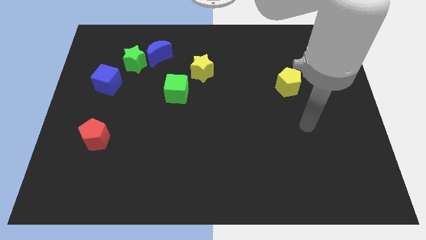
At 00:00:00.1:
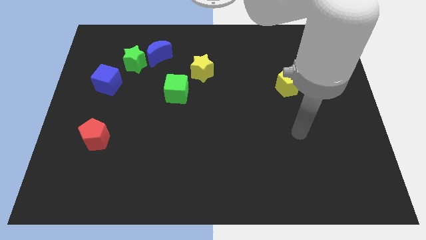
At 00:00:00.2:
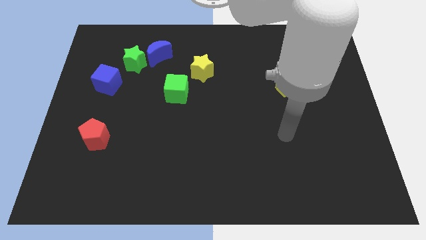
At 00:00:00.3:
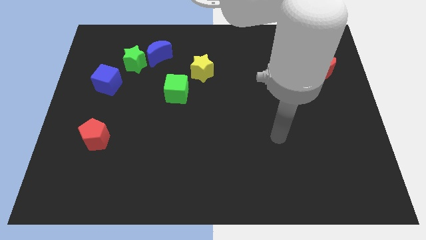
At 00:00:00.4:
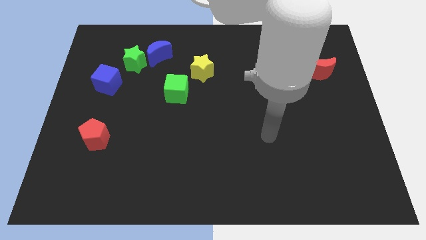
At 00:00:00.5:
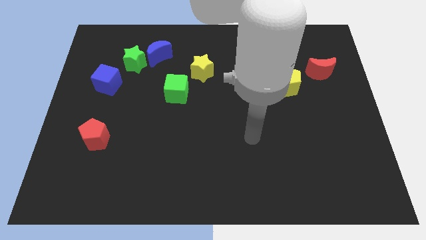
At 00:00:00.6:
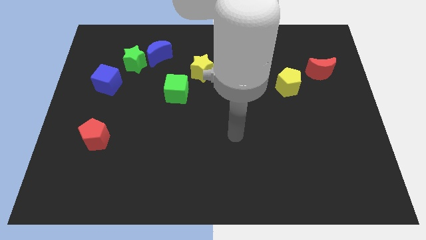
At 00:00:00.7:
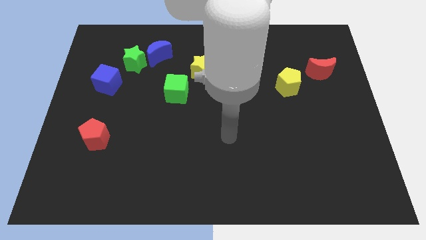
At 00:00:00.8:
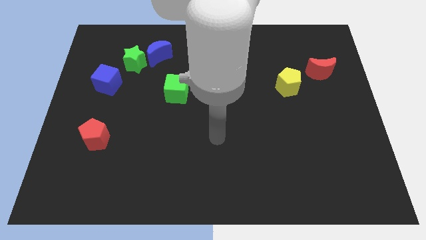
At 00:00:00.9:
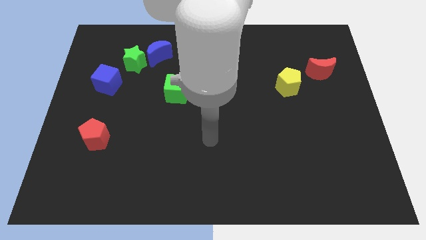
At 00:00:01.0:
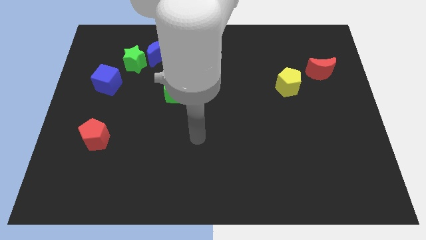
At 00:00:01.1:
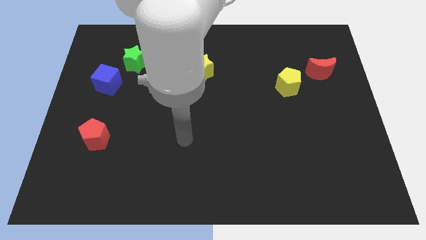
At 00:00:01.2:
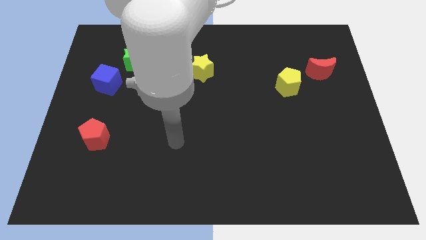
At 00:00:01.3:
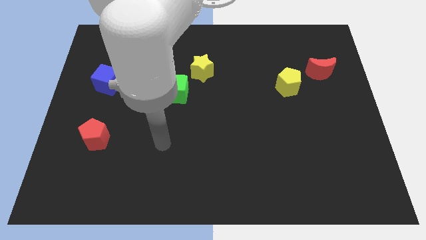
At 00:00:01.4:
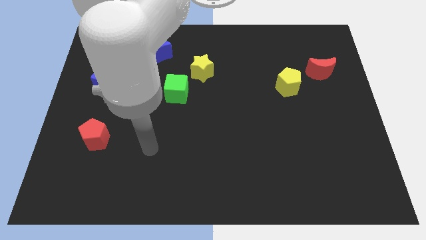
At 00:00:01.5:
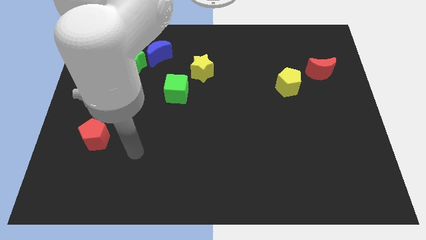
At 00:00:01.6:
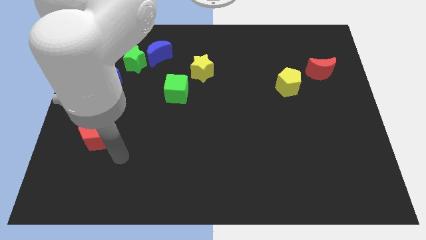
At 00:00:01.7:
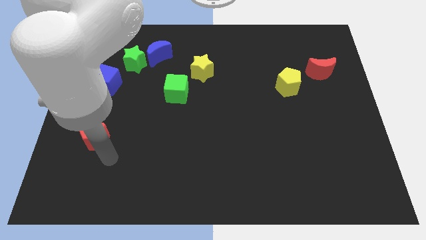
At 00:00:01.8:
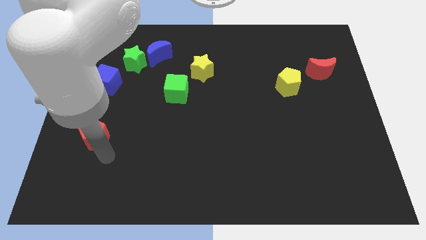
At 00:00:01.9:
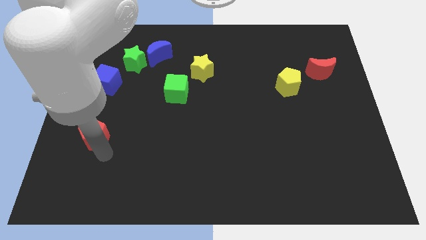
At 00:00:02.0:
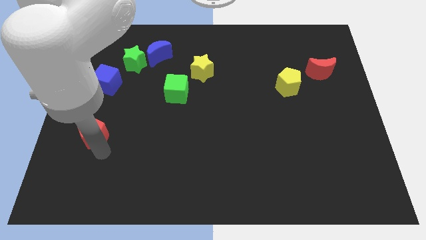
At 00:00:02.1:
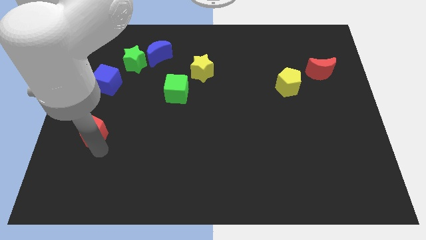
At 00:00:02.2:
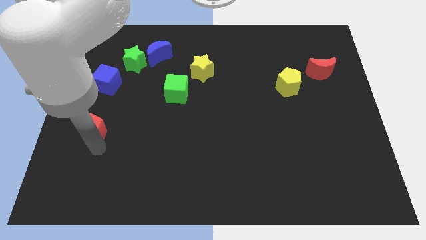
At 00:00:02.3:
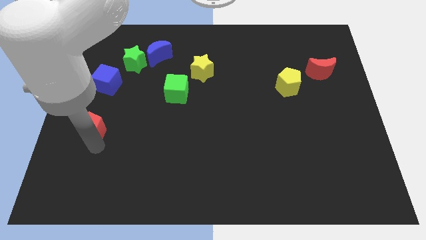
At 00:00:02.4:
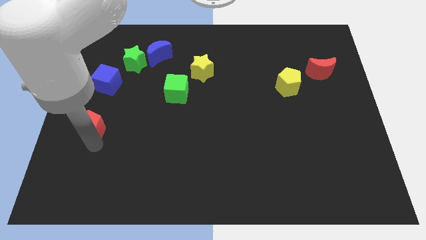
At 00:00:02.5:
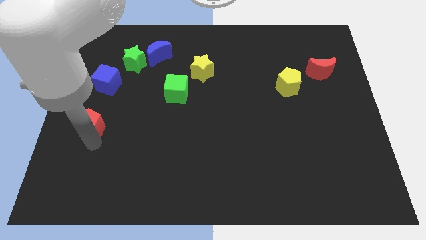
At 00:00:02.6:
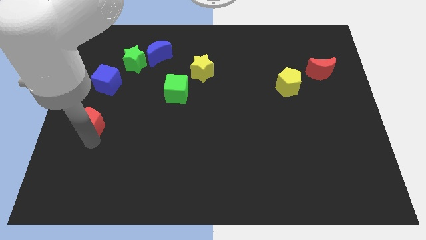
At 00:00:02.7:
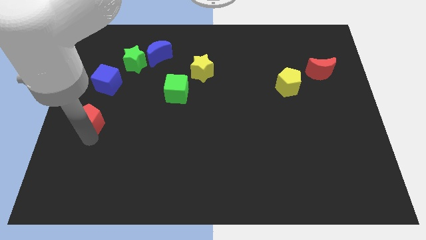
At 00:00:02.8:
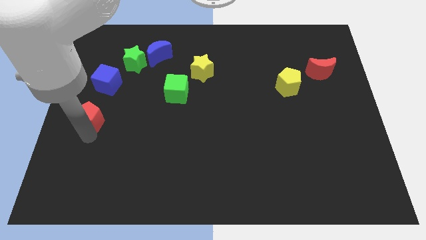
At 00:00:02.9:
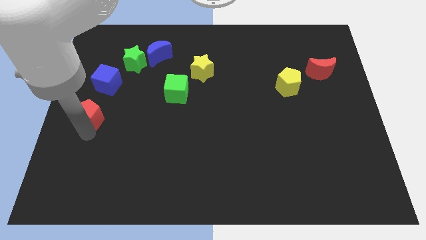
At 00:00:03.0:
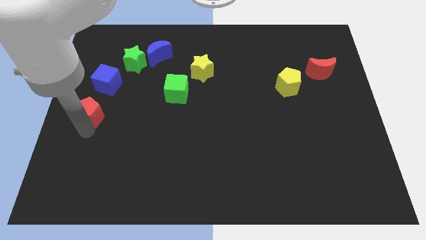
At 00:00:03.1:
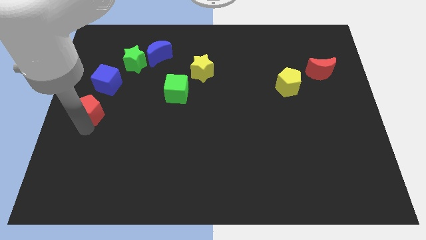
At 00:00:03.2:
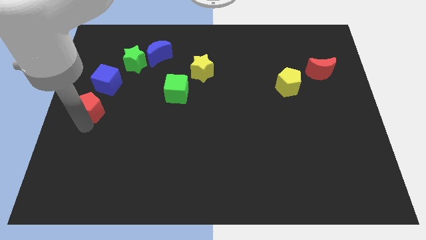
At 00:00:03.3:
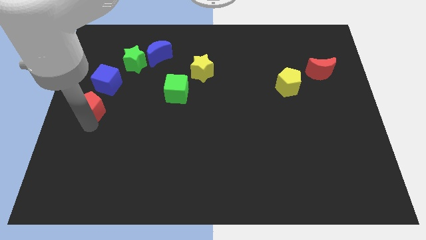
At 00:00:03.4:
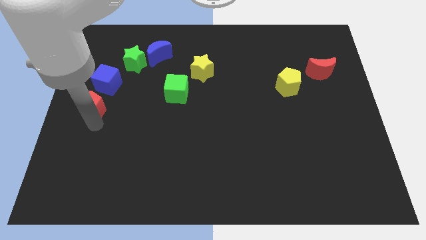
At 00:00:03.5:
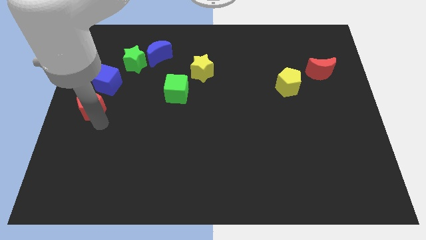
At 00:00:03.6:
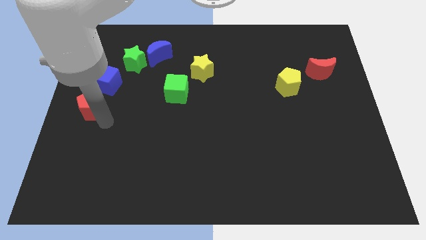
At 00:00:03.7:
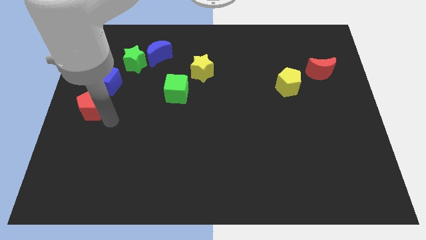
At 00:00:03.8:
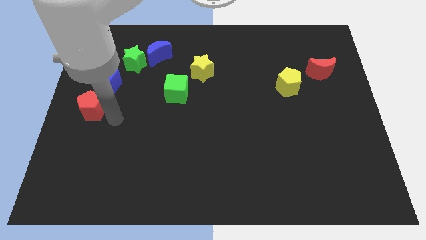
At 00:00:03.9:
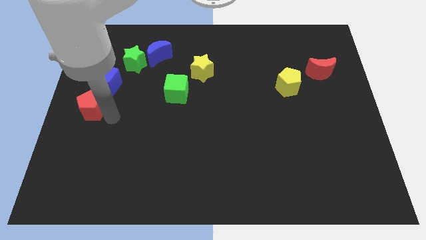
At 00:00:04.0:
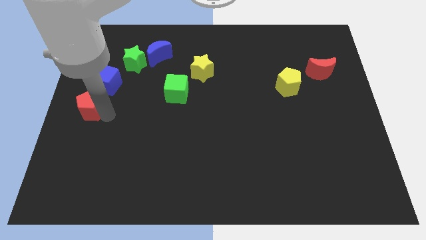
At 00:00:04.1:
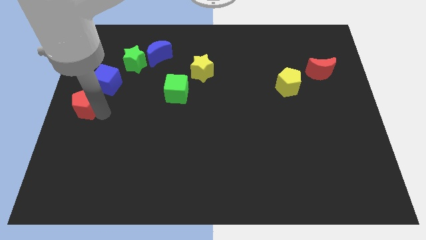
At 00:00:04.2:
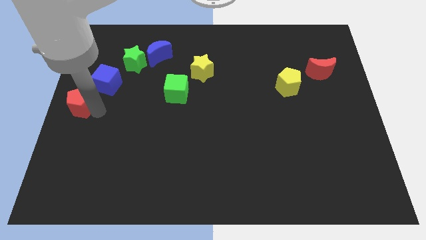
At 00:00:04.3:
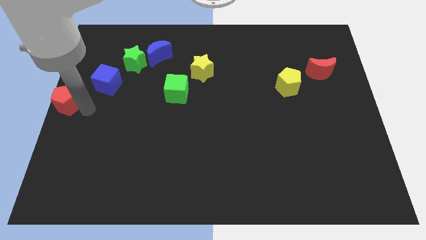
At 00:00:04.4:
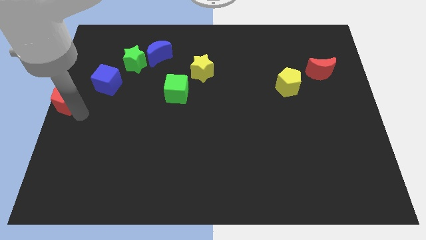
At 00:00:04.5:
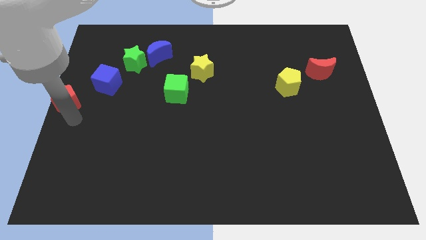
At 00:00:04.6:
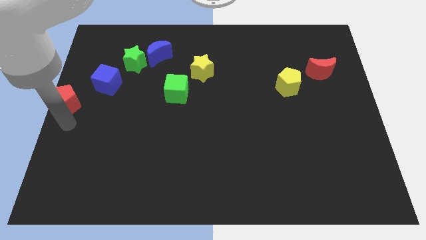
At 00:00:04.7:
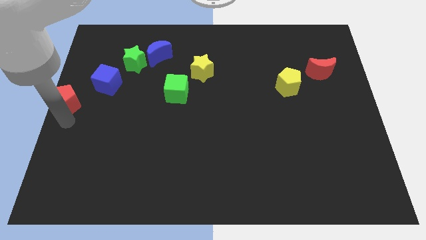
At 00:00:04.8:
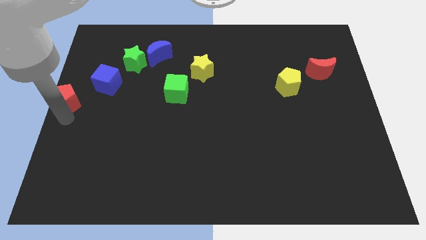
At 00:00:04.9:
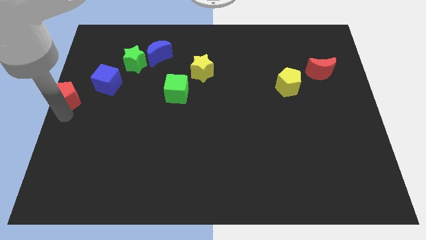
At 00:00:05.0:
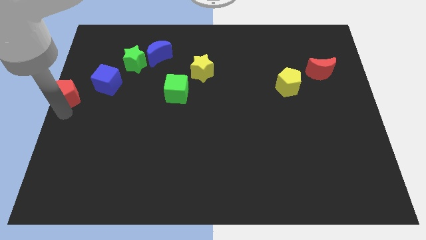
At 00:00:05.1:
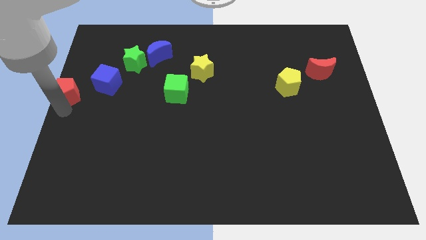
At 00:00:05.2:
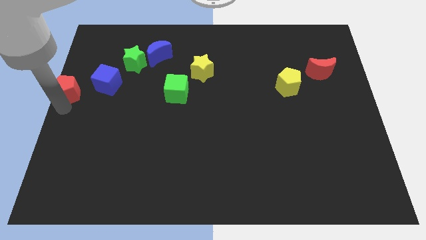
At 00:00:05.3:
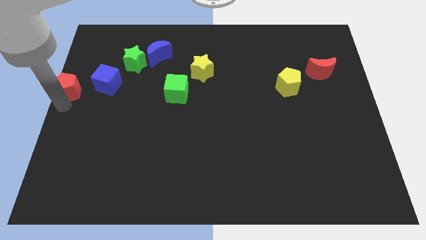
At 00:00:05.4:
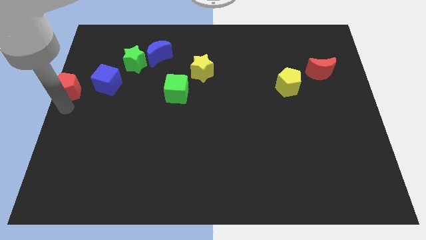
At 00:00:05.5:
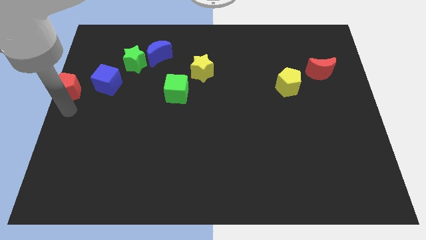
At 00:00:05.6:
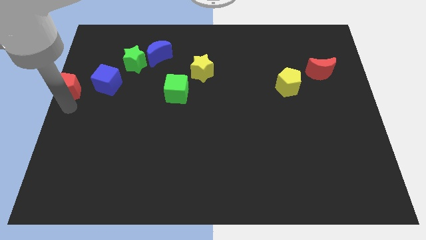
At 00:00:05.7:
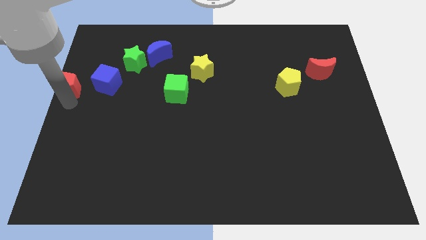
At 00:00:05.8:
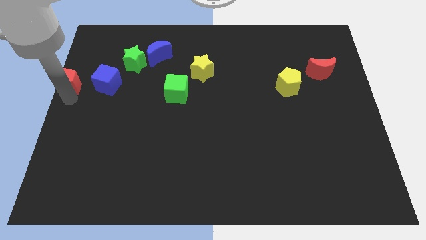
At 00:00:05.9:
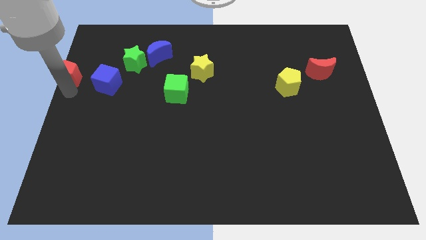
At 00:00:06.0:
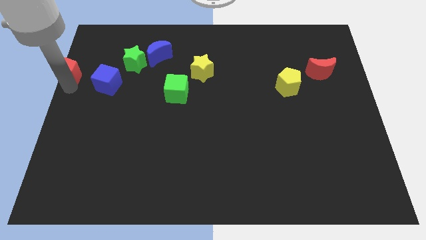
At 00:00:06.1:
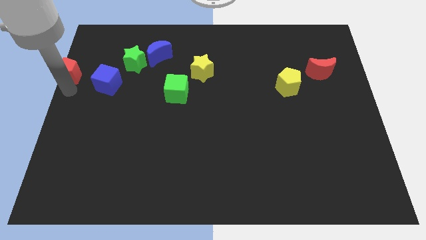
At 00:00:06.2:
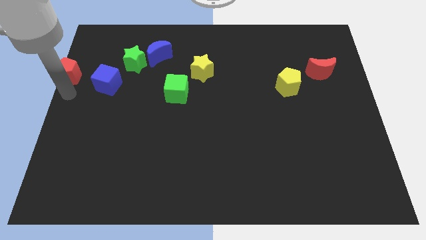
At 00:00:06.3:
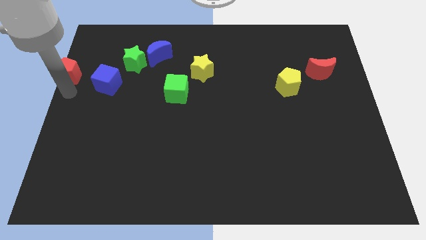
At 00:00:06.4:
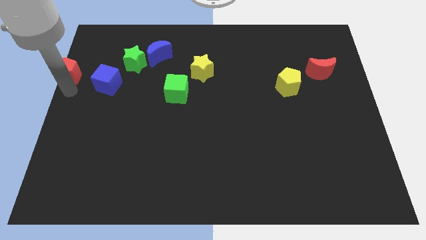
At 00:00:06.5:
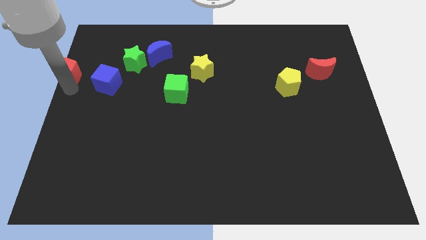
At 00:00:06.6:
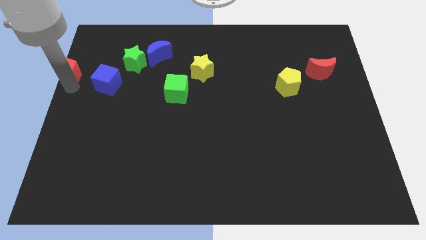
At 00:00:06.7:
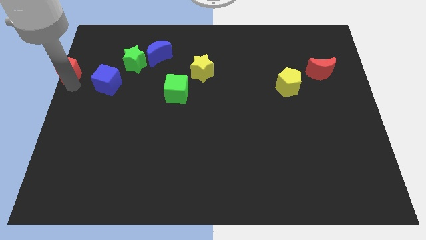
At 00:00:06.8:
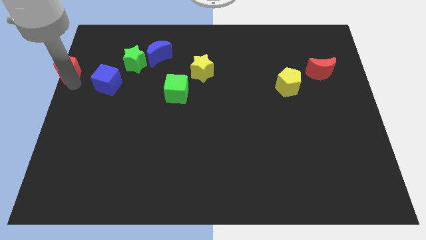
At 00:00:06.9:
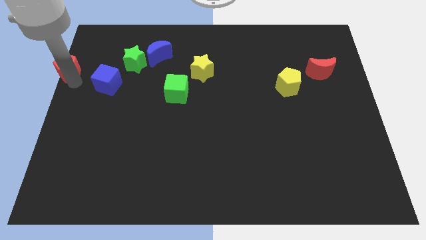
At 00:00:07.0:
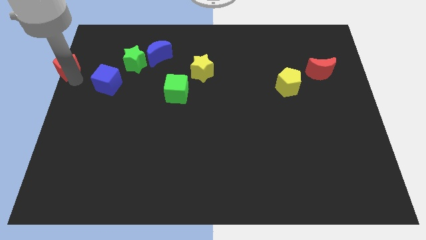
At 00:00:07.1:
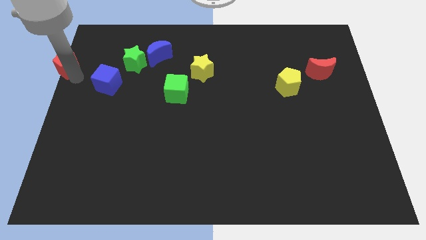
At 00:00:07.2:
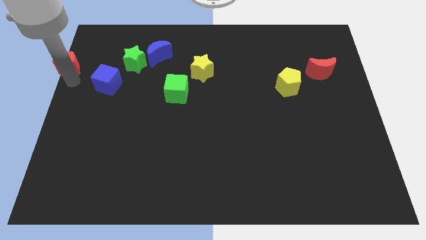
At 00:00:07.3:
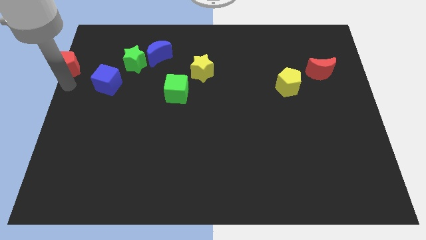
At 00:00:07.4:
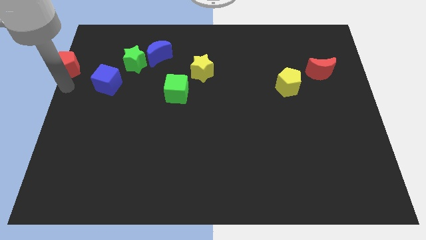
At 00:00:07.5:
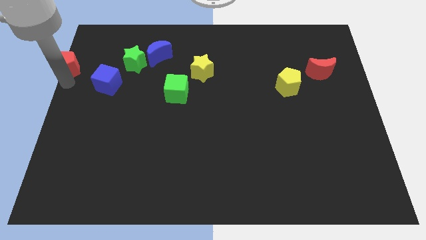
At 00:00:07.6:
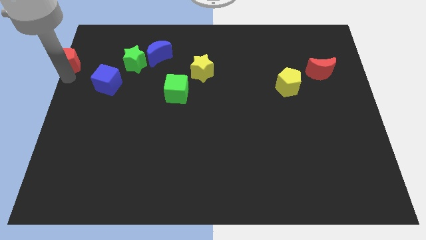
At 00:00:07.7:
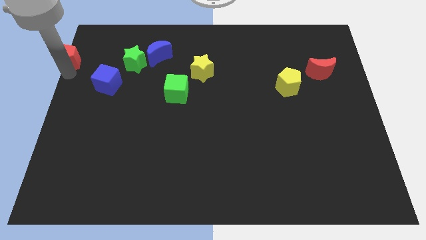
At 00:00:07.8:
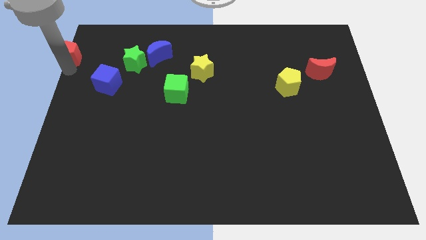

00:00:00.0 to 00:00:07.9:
put the red pentagon to the upper left corner
